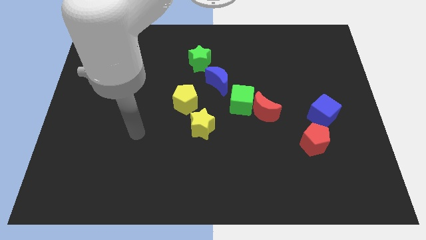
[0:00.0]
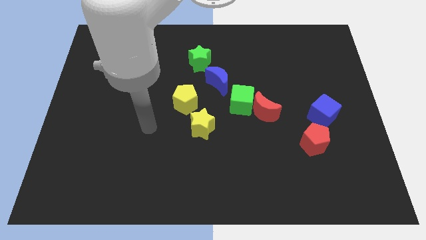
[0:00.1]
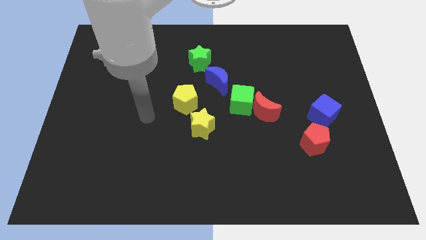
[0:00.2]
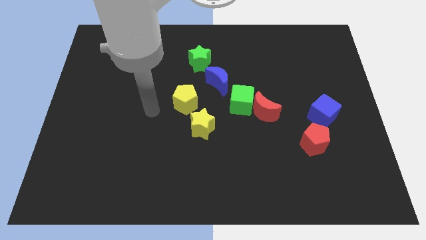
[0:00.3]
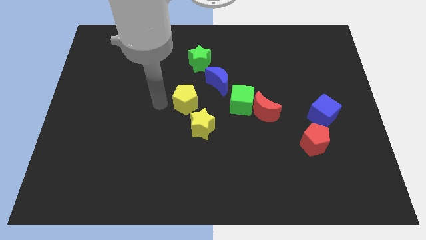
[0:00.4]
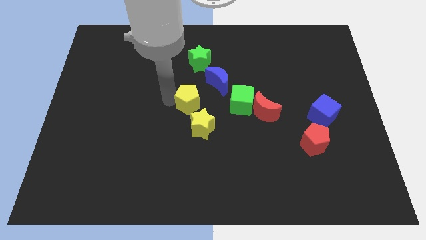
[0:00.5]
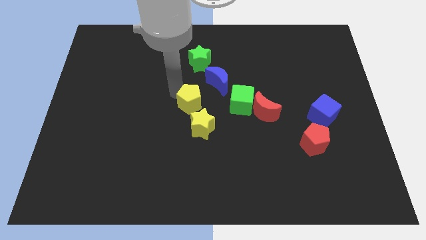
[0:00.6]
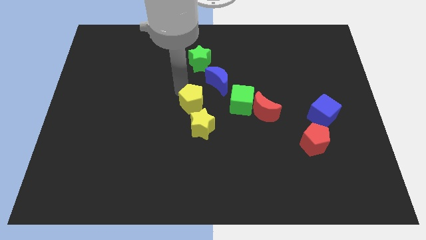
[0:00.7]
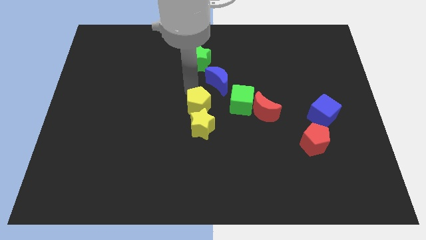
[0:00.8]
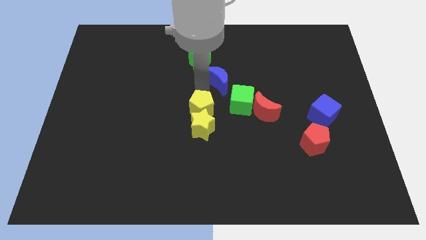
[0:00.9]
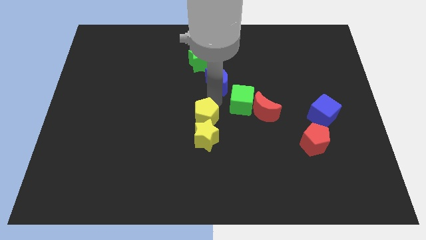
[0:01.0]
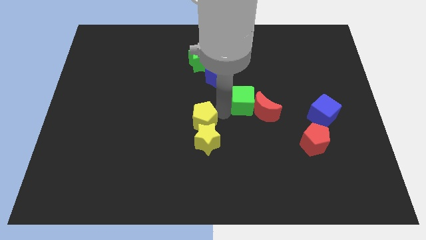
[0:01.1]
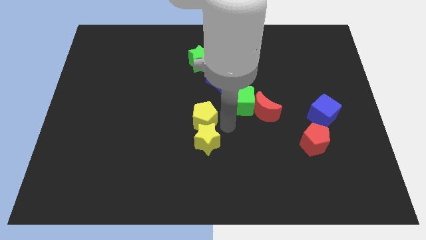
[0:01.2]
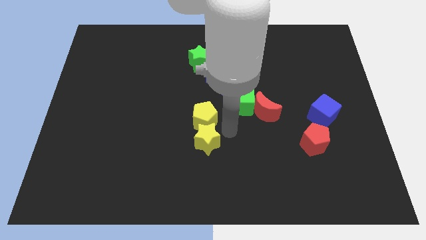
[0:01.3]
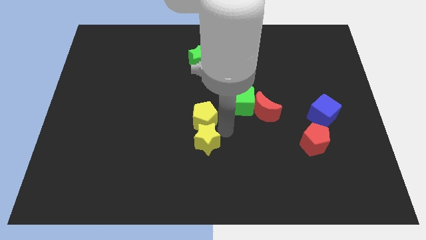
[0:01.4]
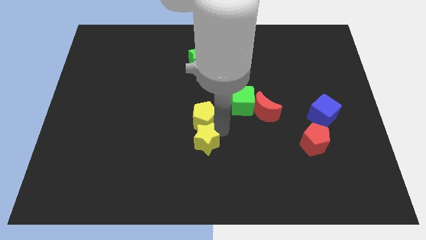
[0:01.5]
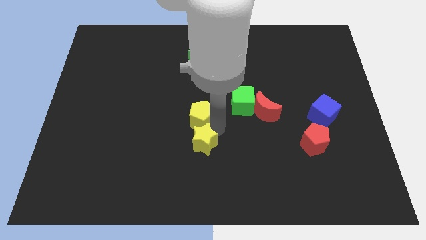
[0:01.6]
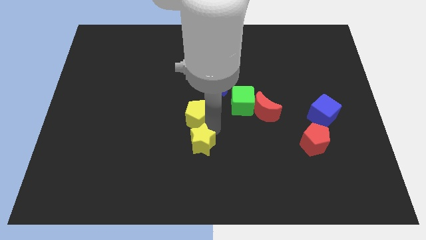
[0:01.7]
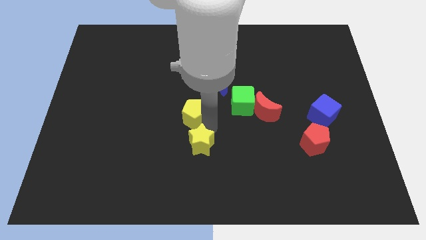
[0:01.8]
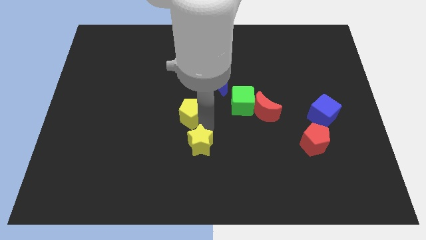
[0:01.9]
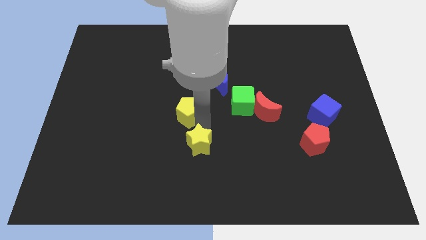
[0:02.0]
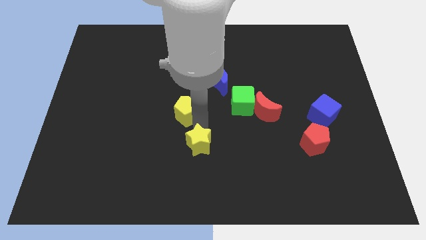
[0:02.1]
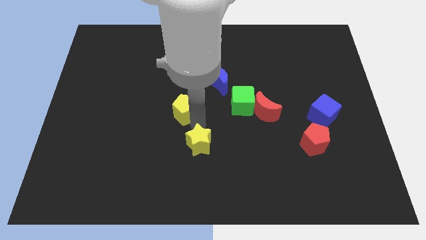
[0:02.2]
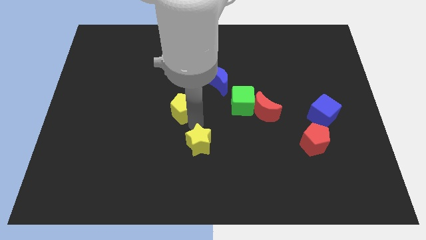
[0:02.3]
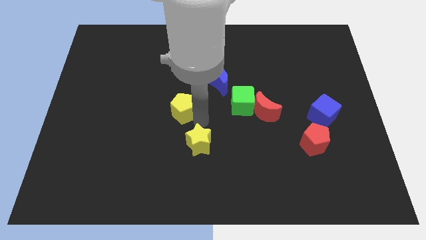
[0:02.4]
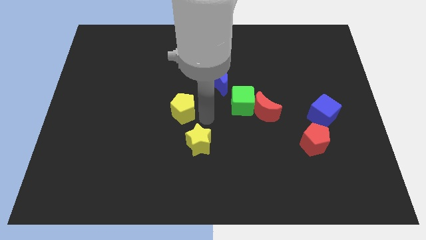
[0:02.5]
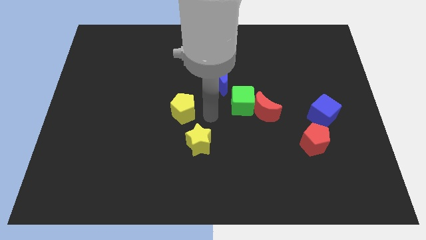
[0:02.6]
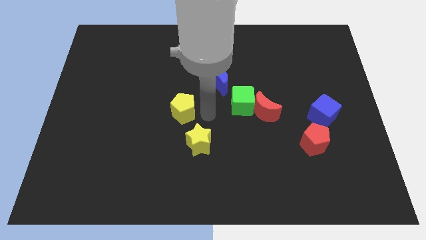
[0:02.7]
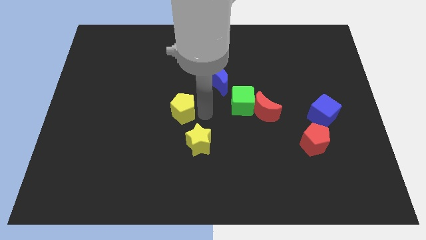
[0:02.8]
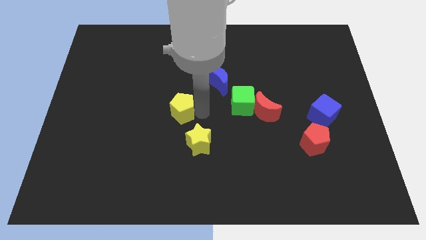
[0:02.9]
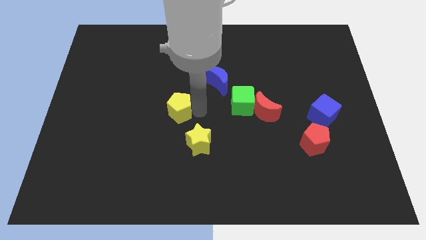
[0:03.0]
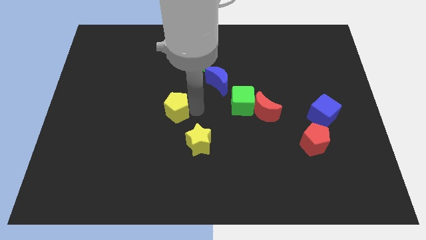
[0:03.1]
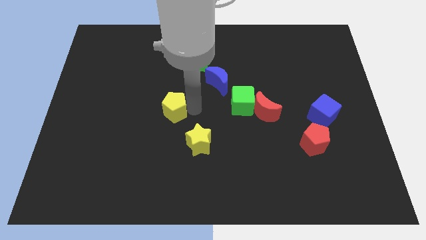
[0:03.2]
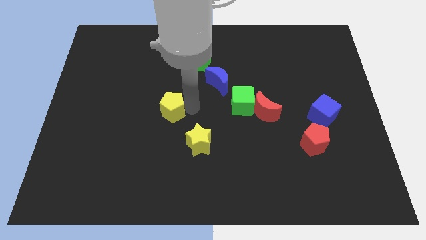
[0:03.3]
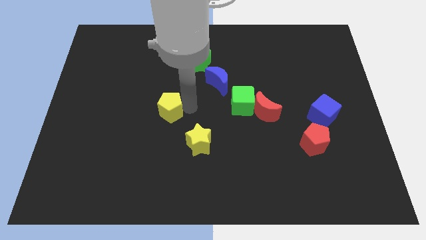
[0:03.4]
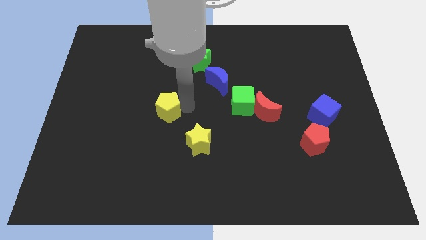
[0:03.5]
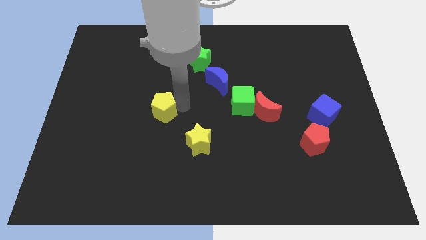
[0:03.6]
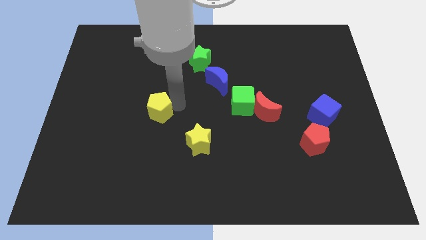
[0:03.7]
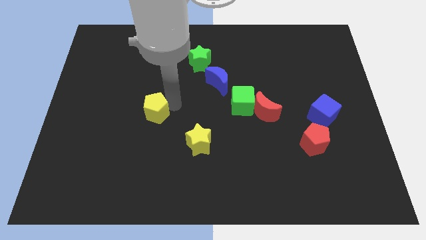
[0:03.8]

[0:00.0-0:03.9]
move the yellow pentagon a little bit left

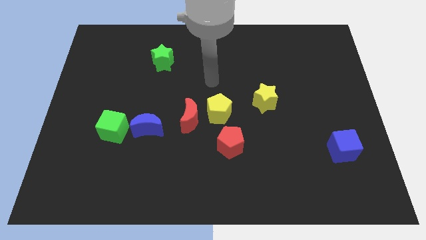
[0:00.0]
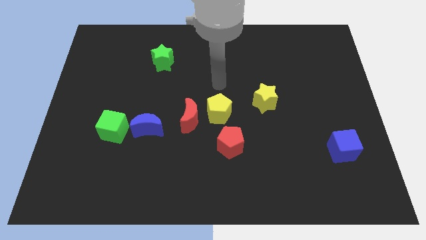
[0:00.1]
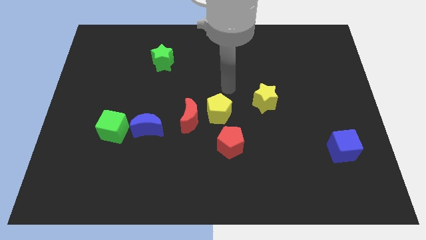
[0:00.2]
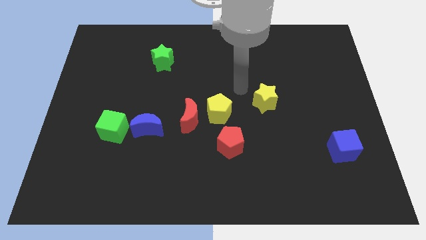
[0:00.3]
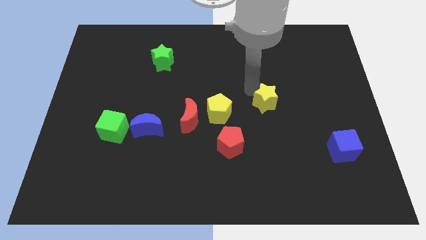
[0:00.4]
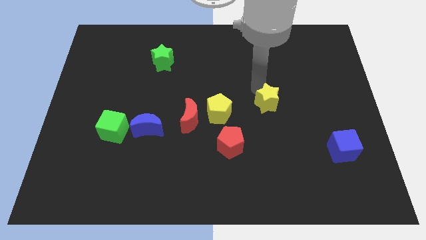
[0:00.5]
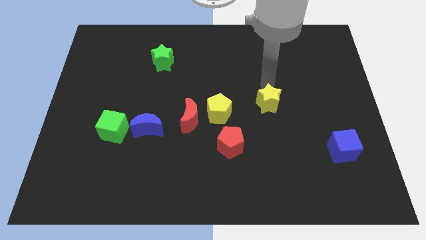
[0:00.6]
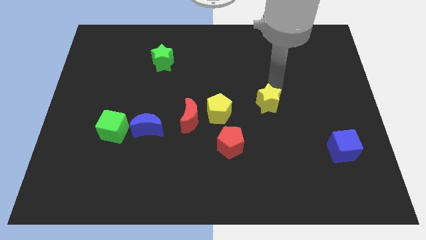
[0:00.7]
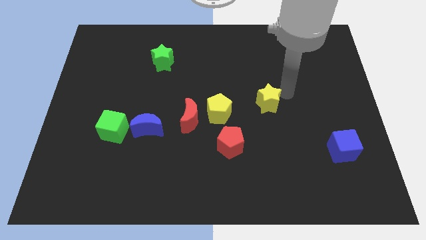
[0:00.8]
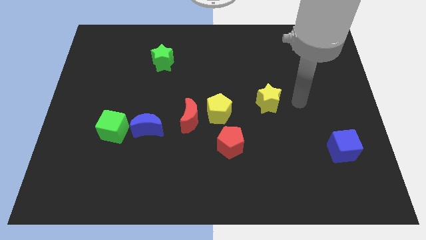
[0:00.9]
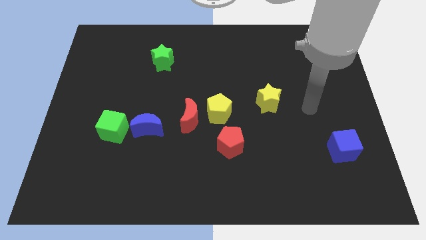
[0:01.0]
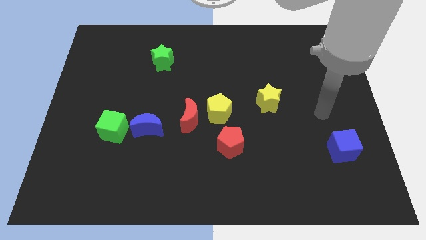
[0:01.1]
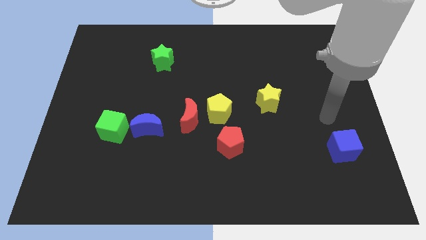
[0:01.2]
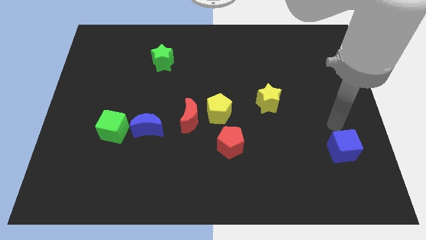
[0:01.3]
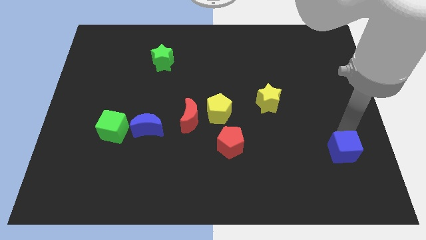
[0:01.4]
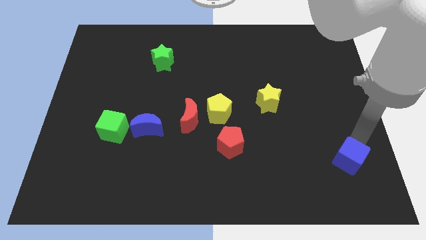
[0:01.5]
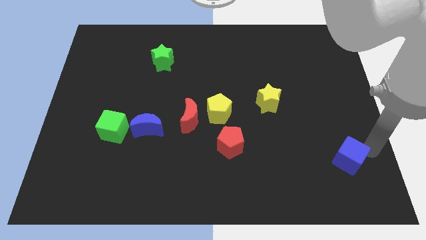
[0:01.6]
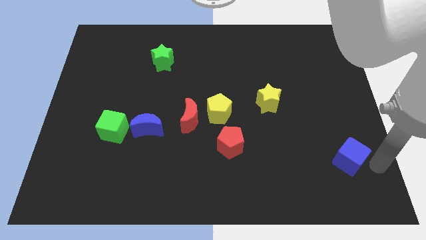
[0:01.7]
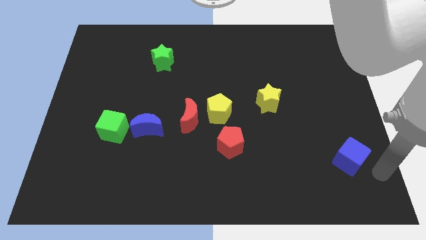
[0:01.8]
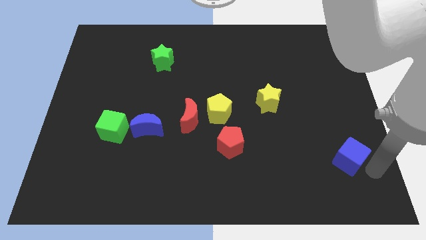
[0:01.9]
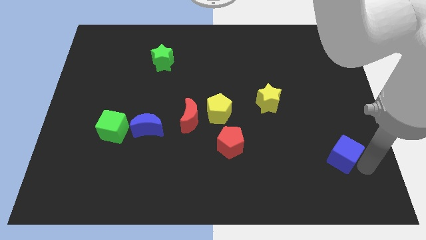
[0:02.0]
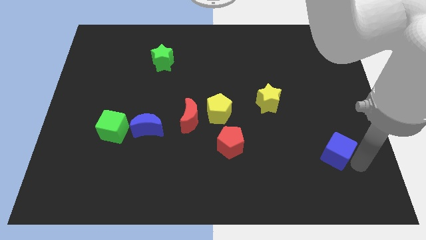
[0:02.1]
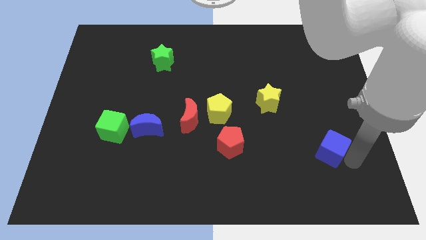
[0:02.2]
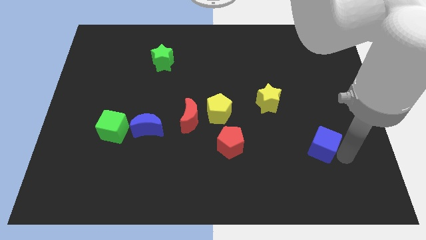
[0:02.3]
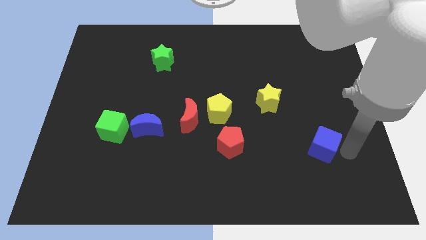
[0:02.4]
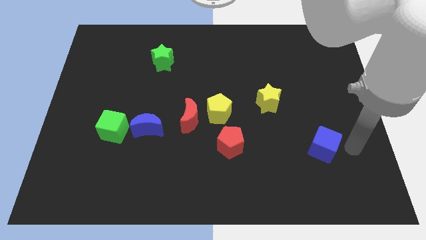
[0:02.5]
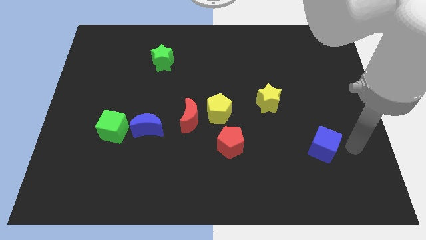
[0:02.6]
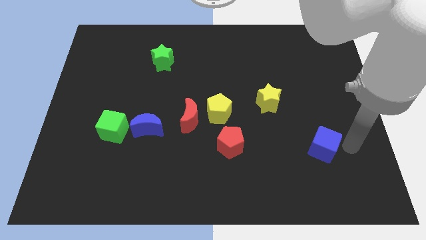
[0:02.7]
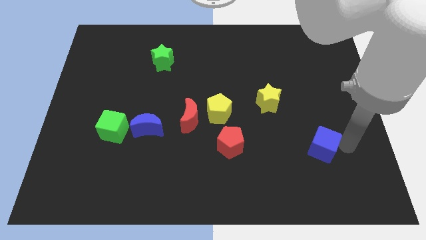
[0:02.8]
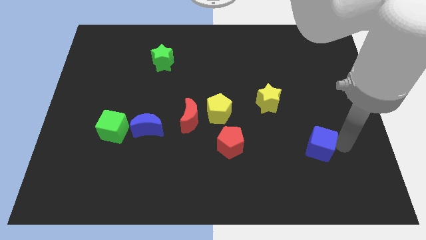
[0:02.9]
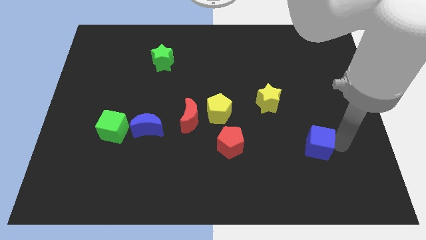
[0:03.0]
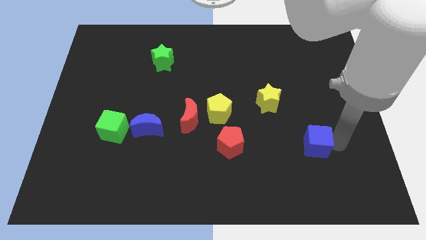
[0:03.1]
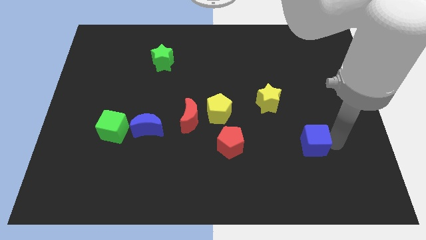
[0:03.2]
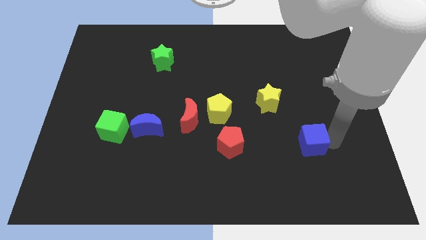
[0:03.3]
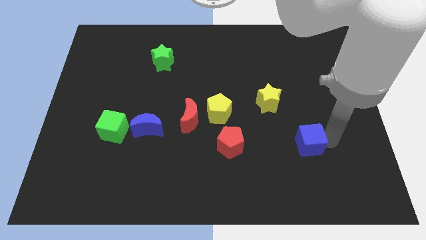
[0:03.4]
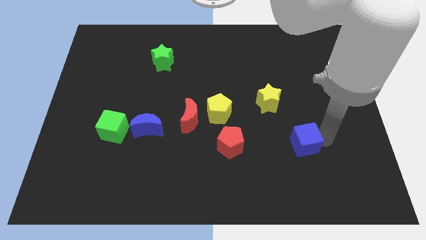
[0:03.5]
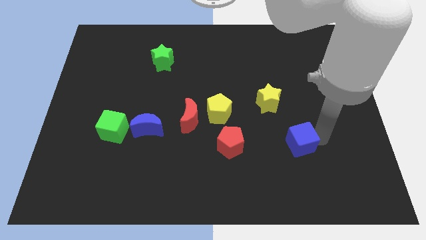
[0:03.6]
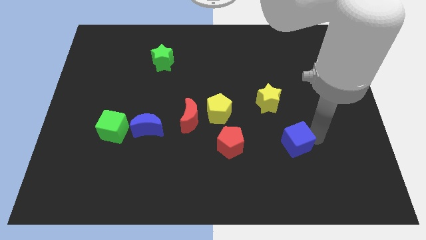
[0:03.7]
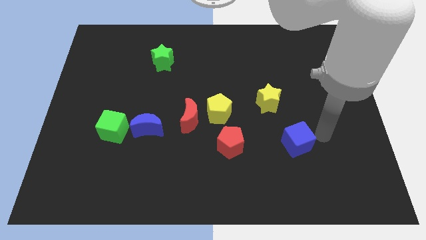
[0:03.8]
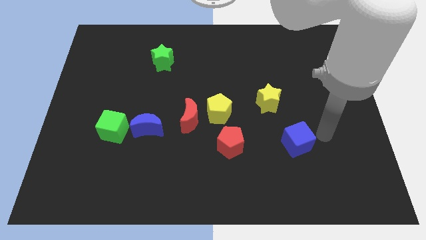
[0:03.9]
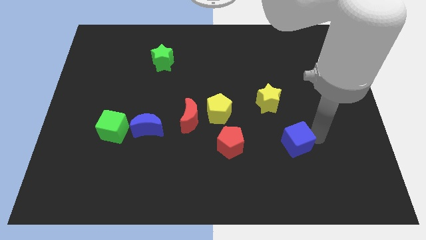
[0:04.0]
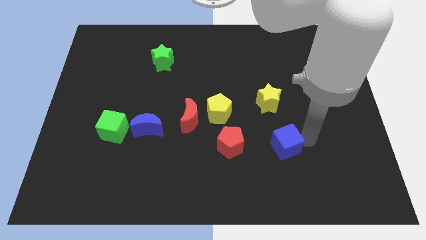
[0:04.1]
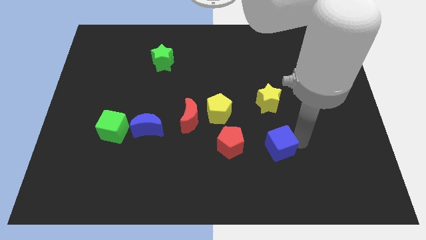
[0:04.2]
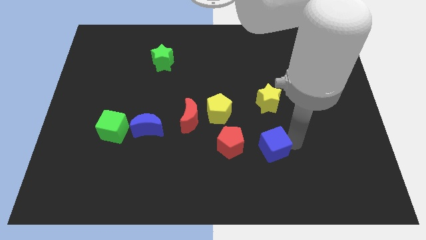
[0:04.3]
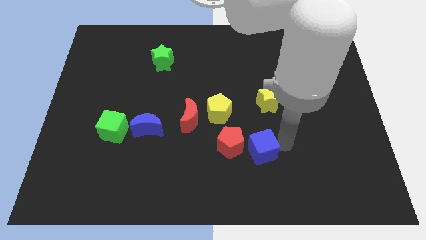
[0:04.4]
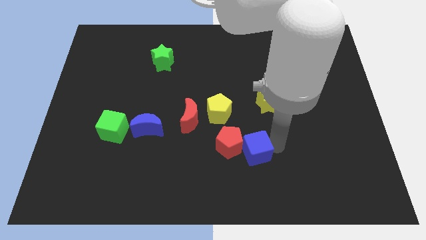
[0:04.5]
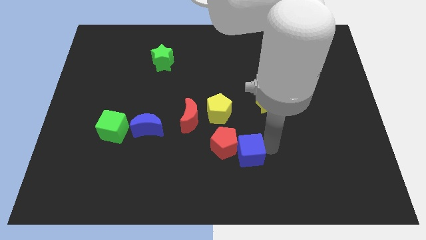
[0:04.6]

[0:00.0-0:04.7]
slide the blue cube to the left
